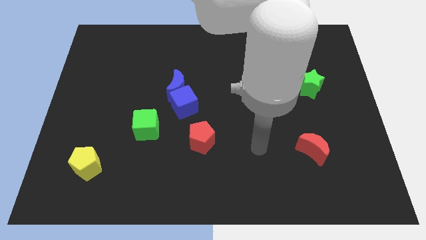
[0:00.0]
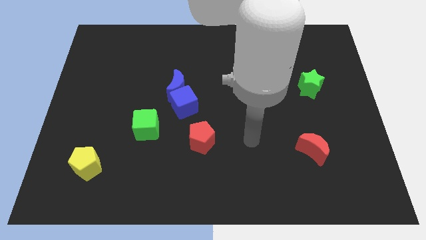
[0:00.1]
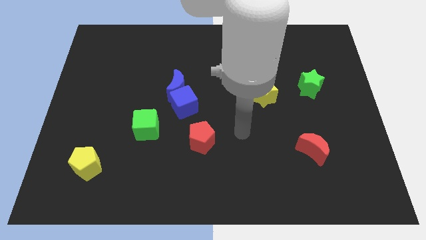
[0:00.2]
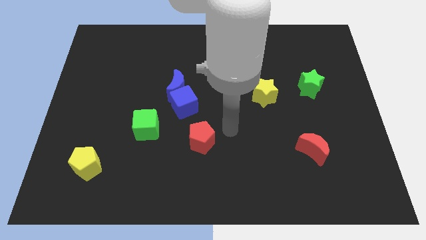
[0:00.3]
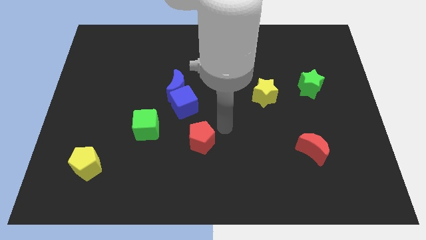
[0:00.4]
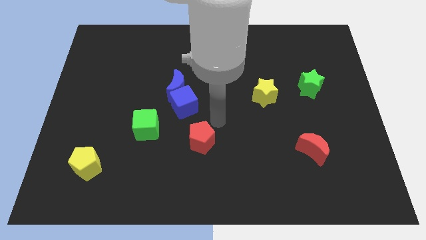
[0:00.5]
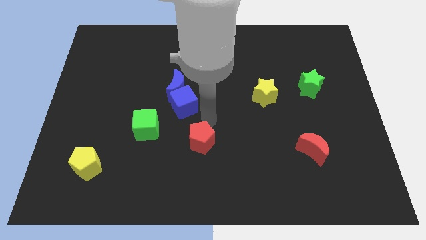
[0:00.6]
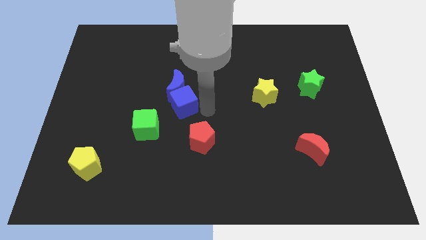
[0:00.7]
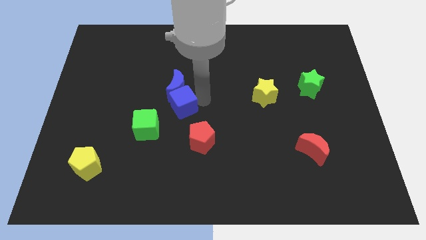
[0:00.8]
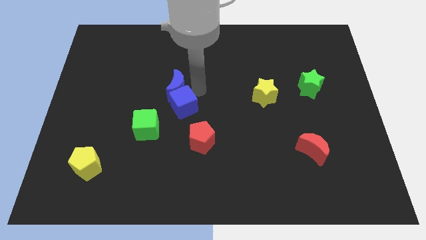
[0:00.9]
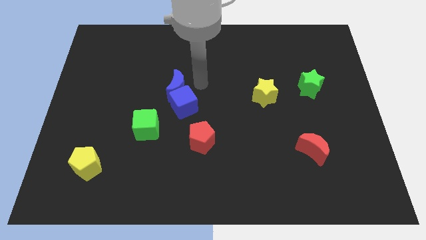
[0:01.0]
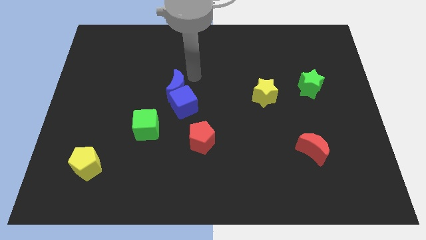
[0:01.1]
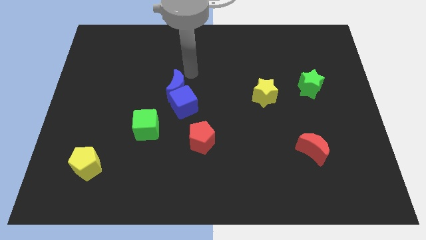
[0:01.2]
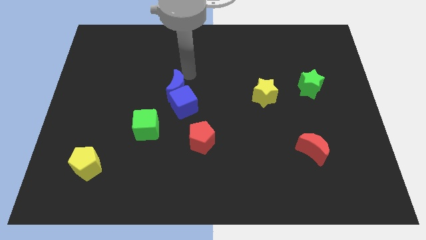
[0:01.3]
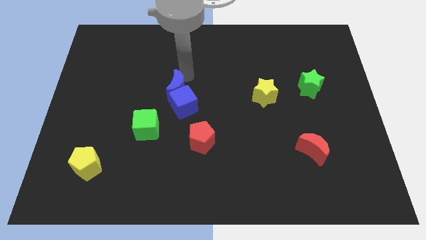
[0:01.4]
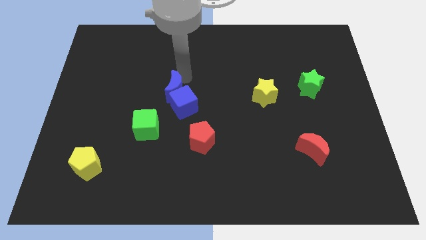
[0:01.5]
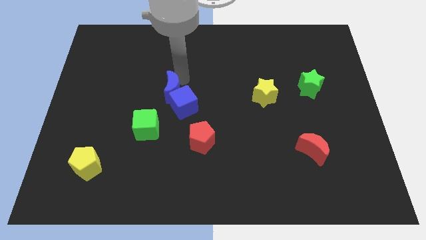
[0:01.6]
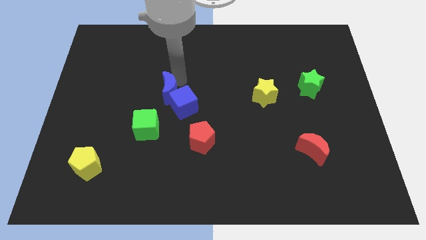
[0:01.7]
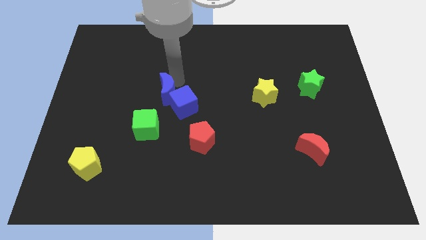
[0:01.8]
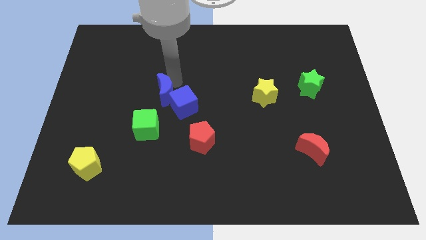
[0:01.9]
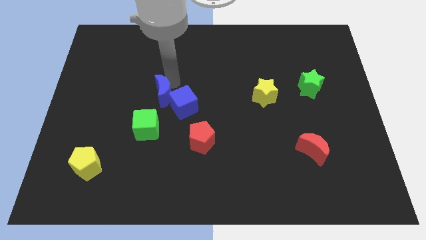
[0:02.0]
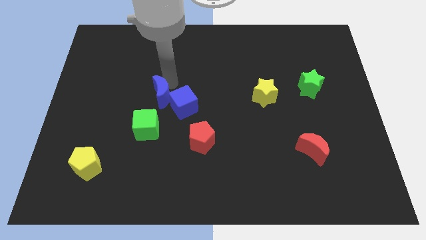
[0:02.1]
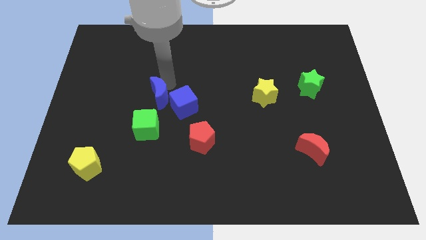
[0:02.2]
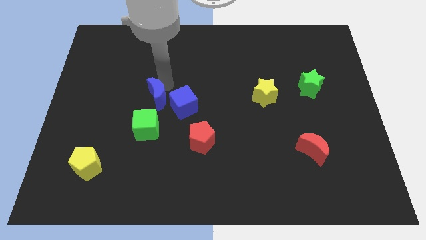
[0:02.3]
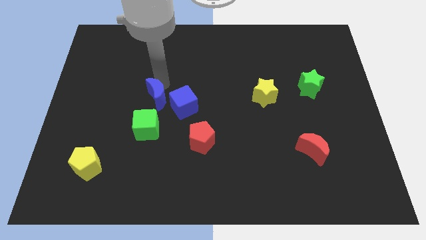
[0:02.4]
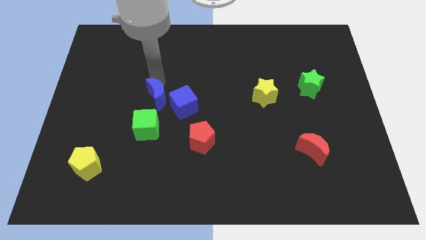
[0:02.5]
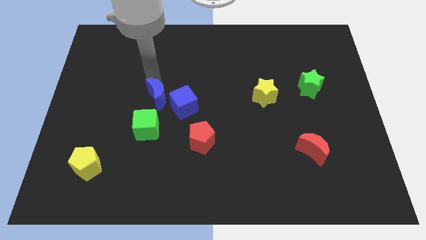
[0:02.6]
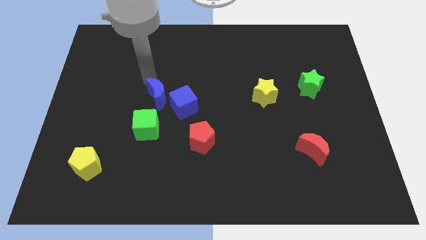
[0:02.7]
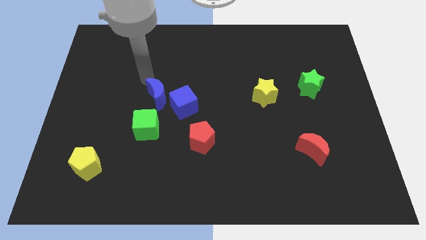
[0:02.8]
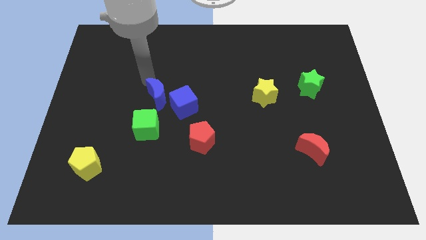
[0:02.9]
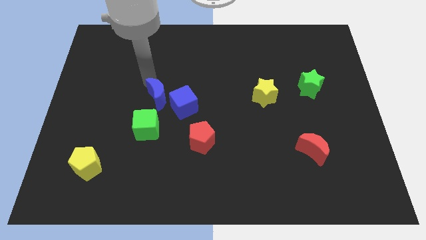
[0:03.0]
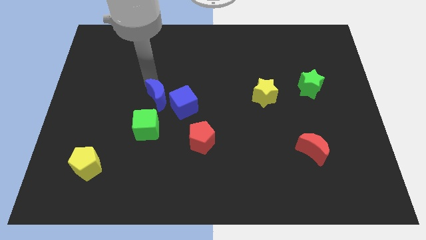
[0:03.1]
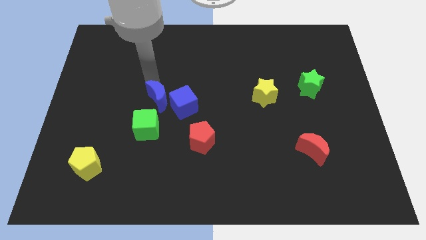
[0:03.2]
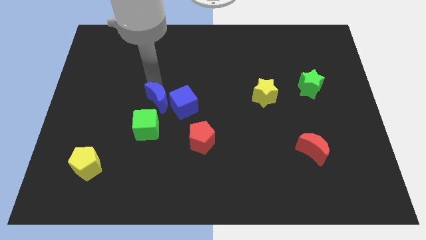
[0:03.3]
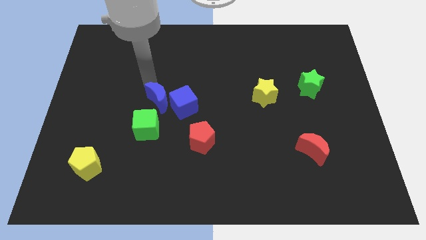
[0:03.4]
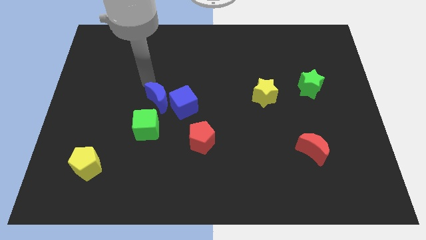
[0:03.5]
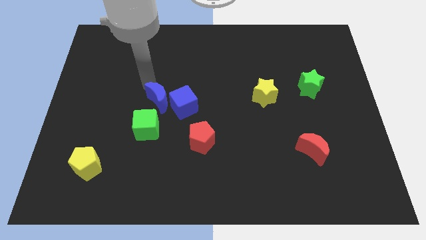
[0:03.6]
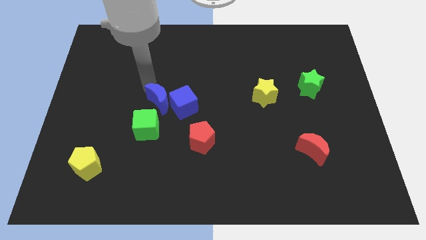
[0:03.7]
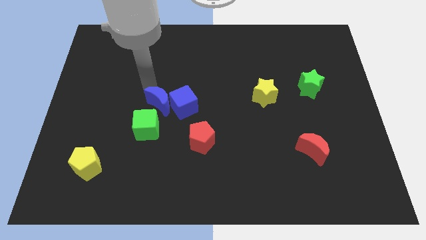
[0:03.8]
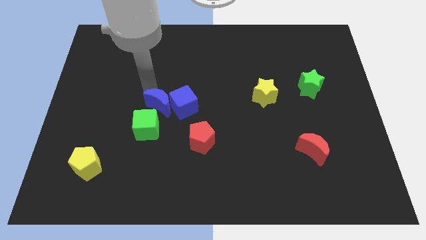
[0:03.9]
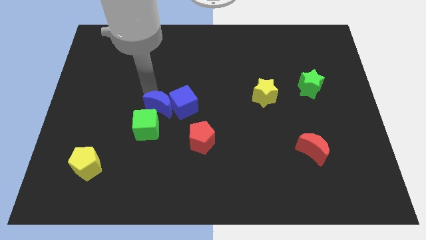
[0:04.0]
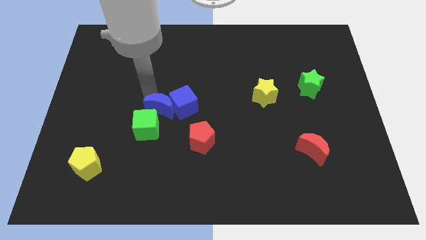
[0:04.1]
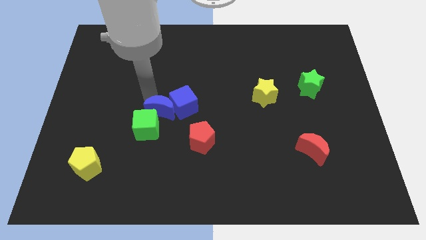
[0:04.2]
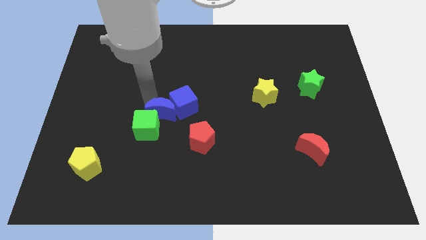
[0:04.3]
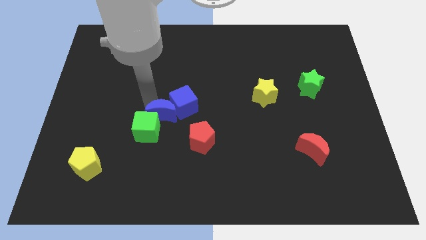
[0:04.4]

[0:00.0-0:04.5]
move the blue moon slightly down

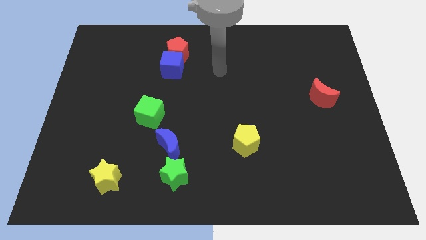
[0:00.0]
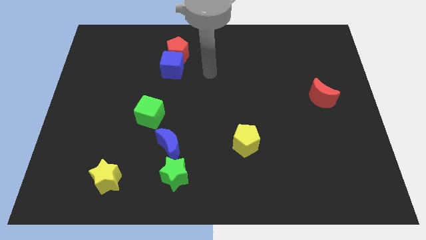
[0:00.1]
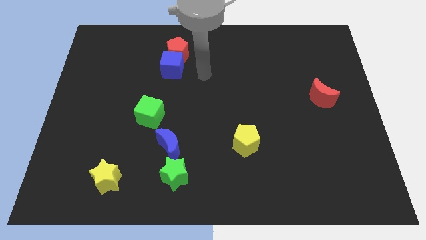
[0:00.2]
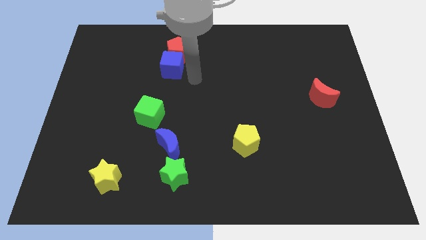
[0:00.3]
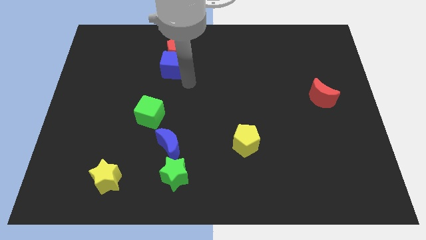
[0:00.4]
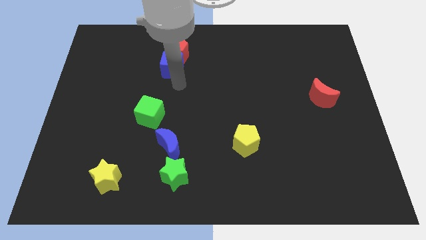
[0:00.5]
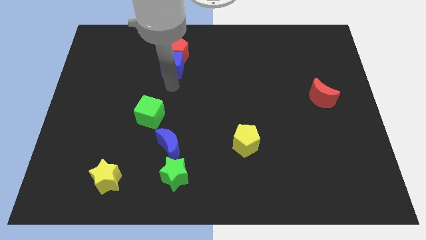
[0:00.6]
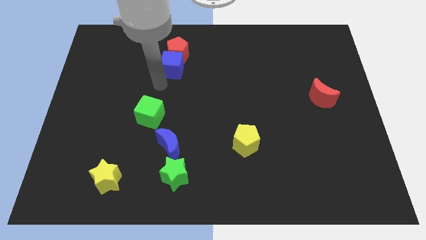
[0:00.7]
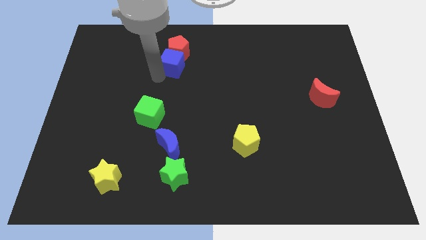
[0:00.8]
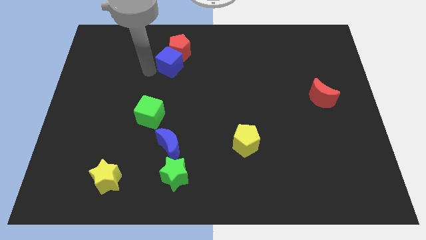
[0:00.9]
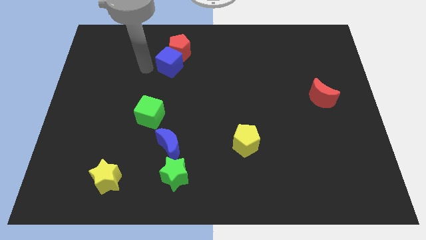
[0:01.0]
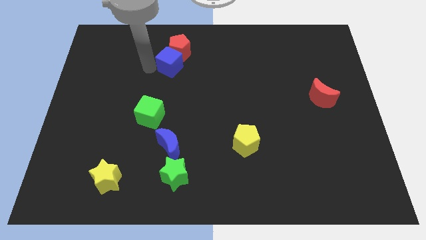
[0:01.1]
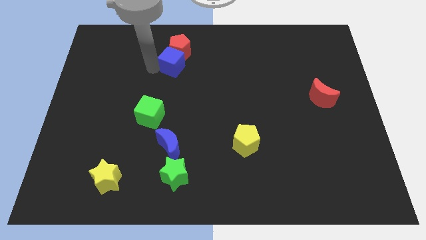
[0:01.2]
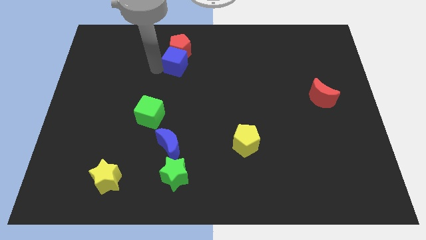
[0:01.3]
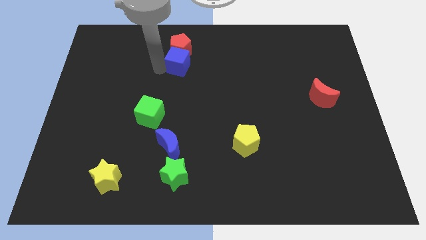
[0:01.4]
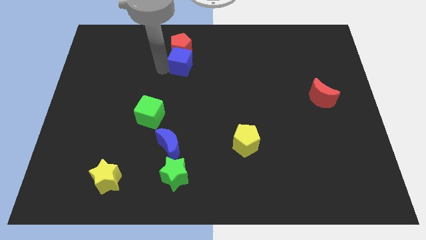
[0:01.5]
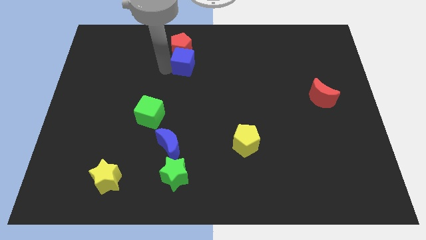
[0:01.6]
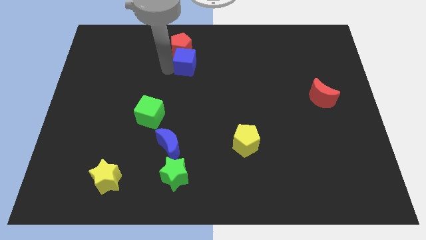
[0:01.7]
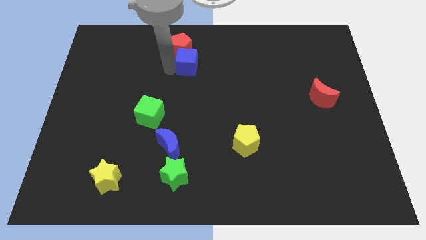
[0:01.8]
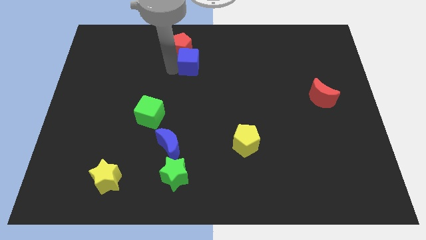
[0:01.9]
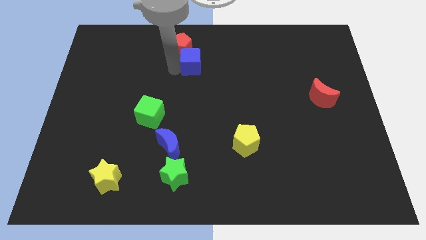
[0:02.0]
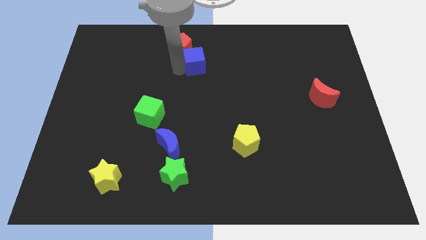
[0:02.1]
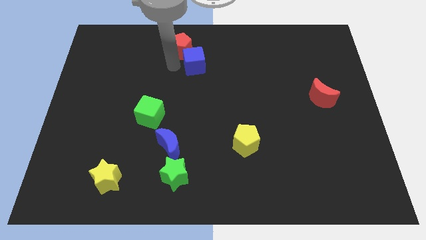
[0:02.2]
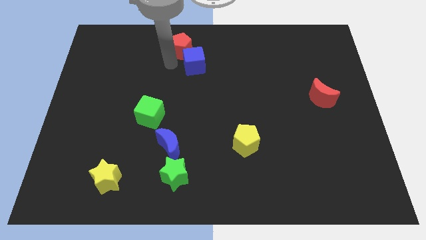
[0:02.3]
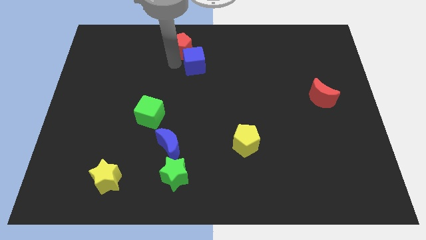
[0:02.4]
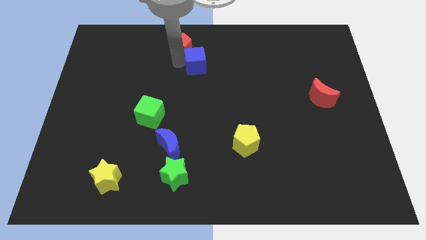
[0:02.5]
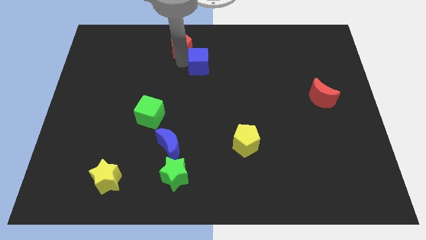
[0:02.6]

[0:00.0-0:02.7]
slide the blue cube somewhat to the right

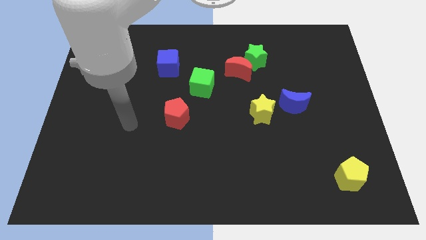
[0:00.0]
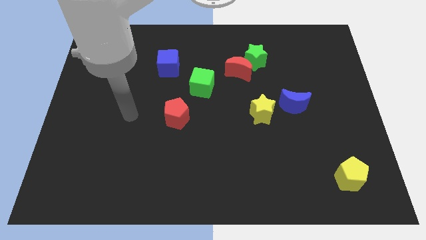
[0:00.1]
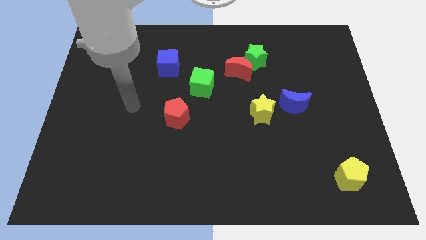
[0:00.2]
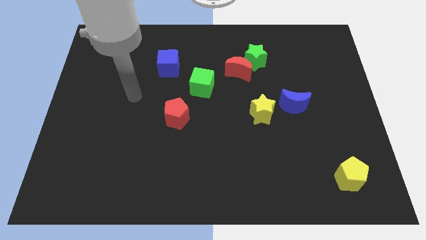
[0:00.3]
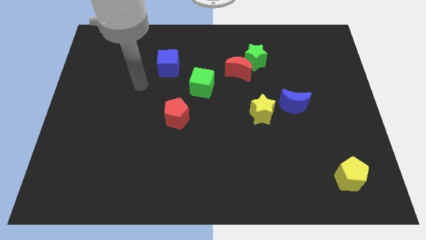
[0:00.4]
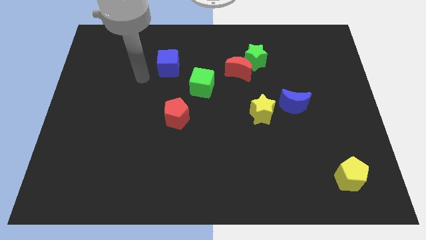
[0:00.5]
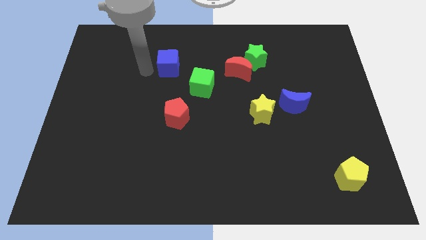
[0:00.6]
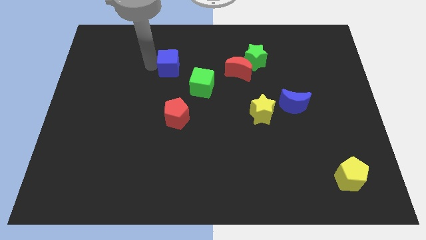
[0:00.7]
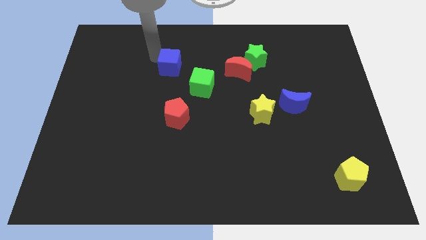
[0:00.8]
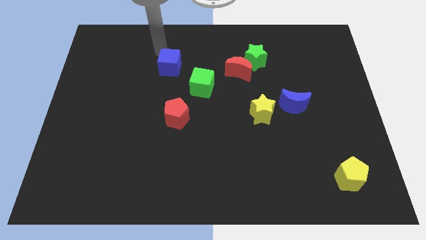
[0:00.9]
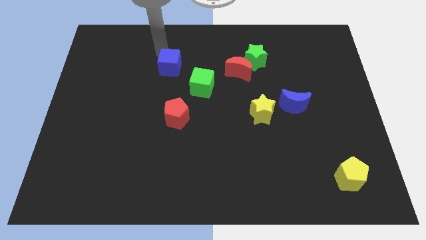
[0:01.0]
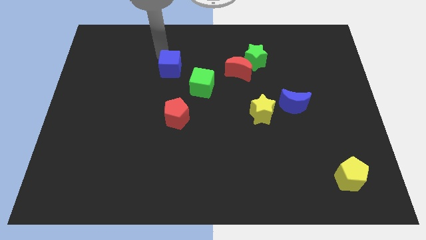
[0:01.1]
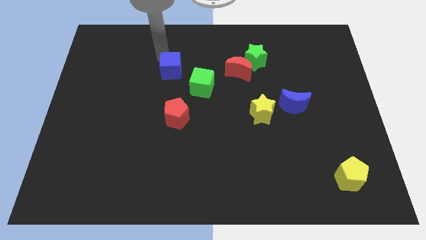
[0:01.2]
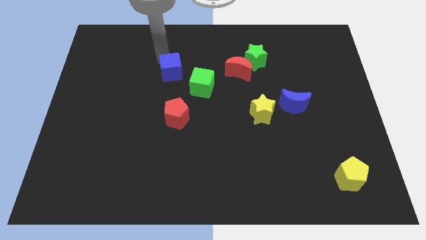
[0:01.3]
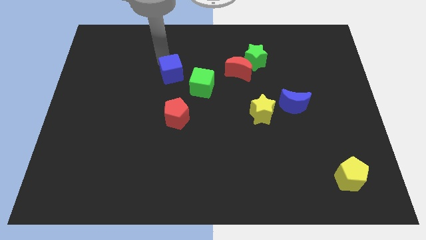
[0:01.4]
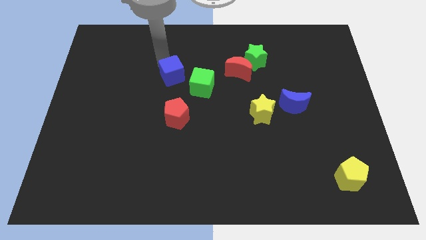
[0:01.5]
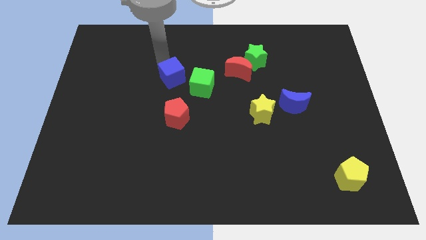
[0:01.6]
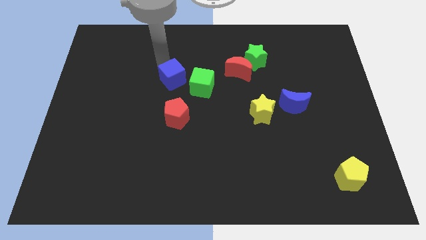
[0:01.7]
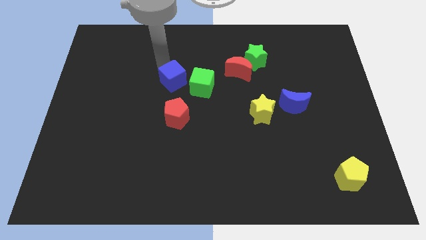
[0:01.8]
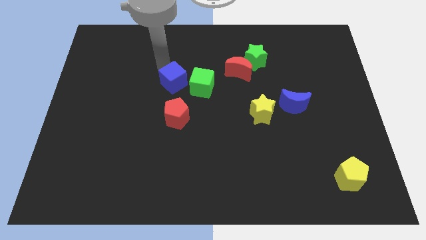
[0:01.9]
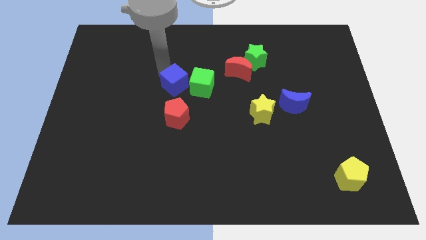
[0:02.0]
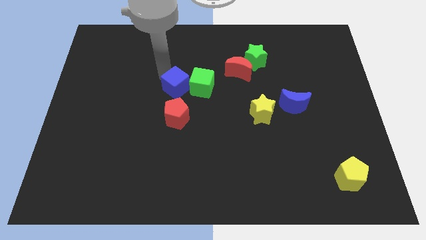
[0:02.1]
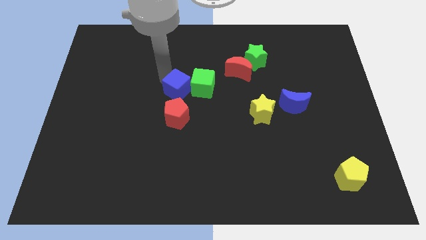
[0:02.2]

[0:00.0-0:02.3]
slightly push the blue cube downwards and to the right diagonally
